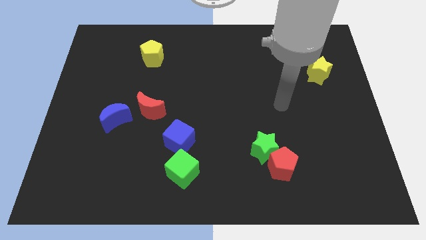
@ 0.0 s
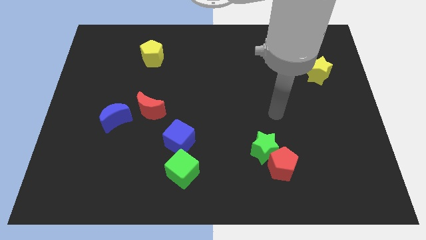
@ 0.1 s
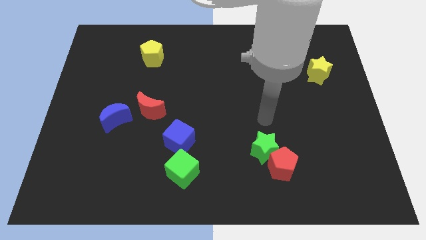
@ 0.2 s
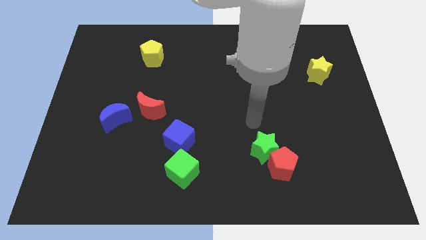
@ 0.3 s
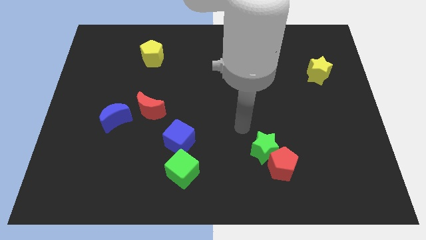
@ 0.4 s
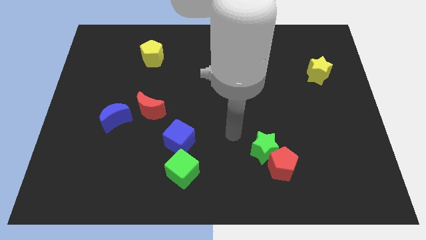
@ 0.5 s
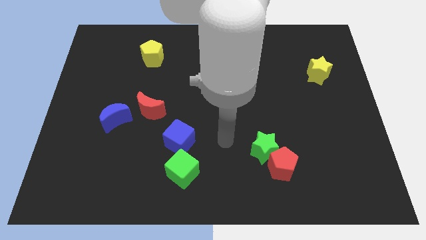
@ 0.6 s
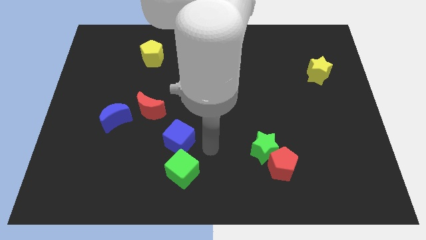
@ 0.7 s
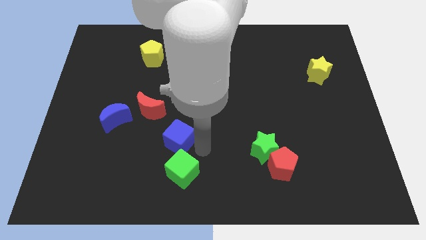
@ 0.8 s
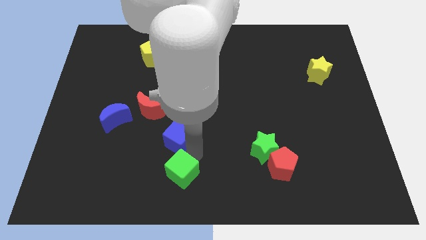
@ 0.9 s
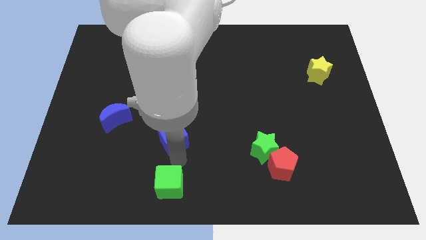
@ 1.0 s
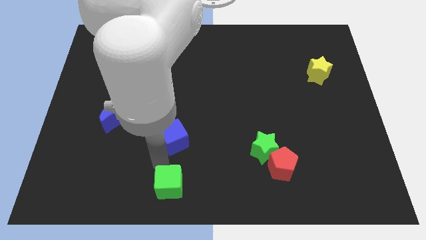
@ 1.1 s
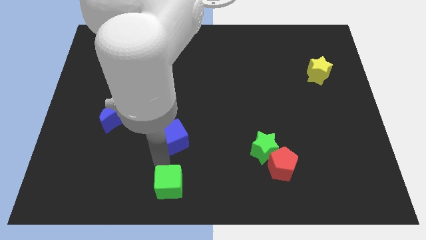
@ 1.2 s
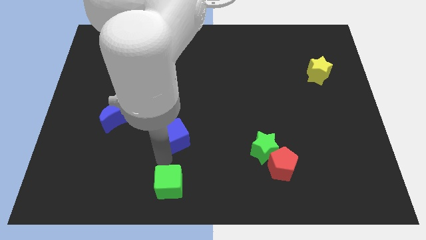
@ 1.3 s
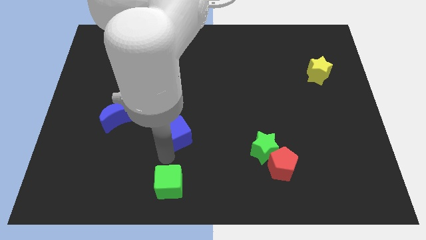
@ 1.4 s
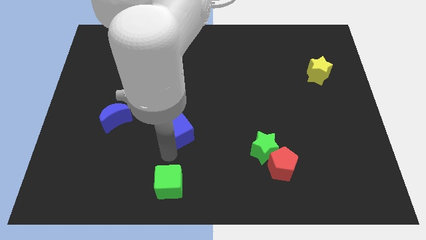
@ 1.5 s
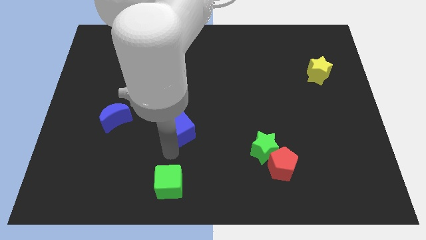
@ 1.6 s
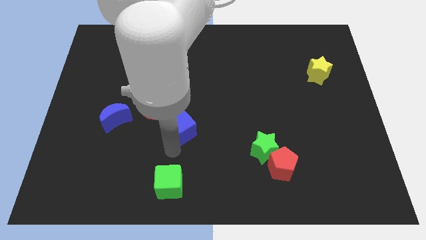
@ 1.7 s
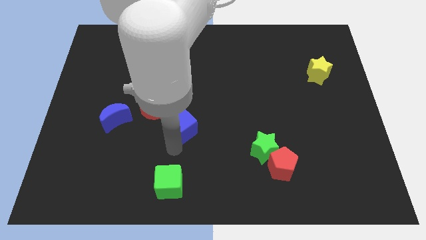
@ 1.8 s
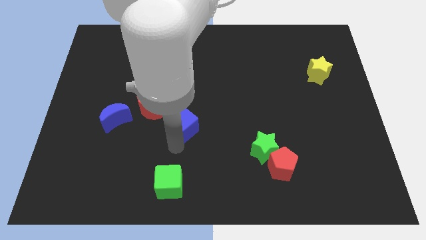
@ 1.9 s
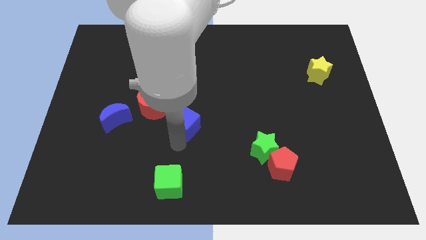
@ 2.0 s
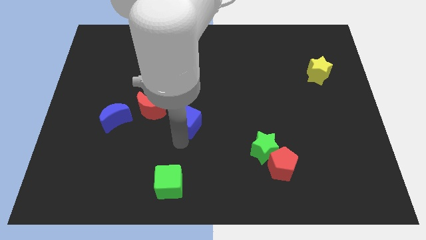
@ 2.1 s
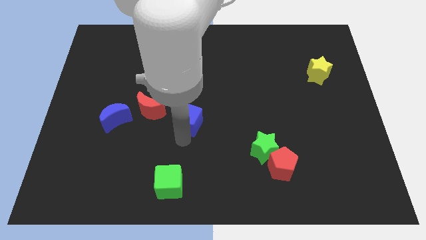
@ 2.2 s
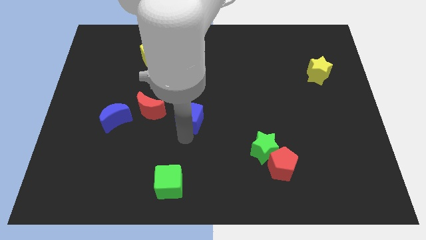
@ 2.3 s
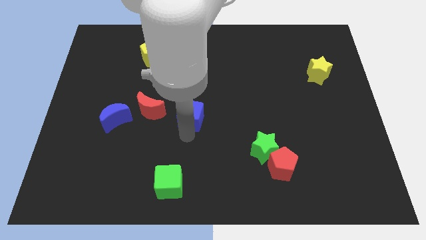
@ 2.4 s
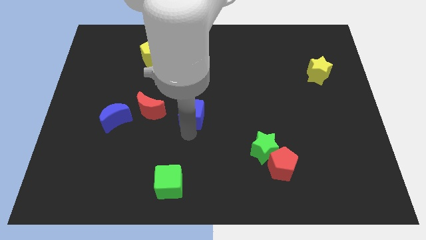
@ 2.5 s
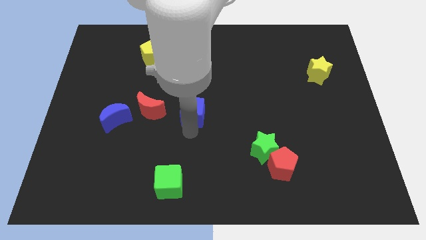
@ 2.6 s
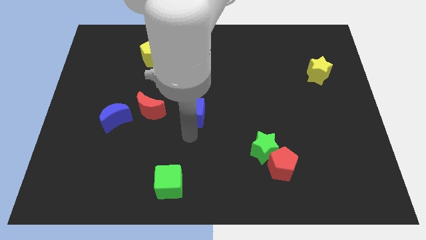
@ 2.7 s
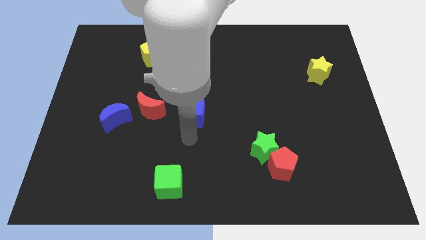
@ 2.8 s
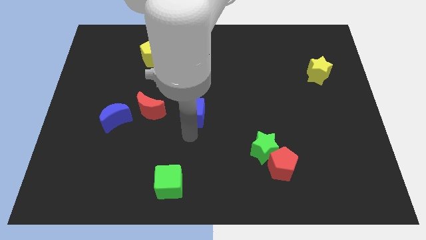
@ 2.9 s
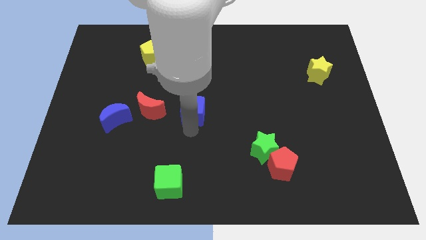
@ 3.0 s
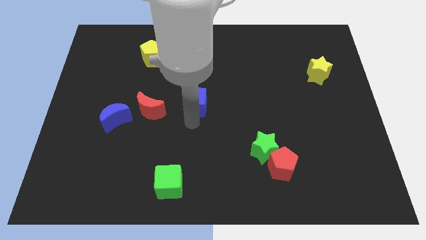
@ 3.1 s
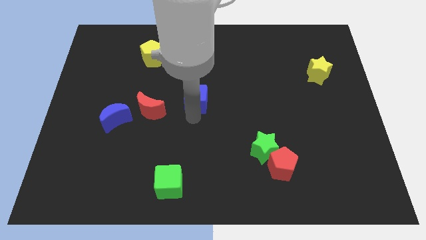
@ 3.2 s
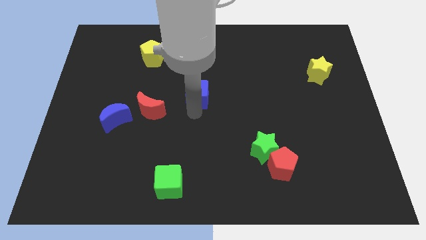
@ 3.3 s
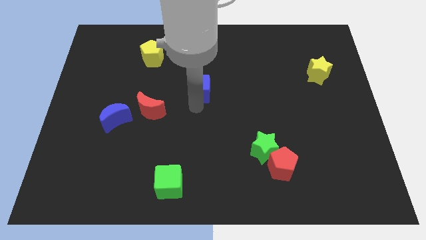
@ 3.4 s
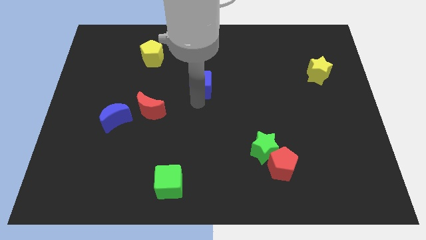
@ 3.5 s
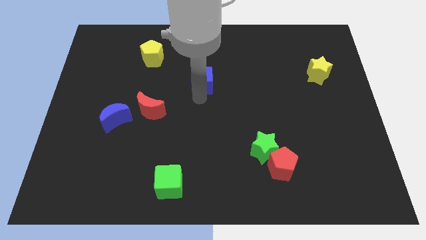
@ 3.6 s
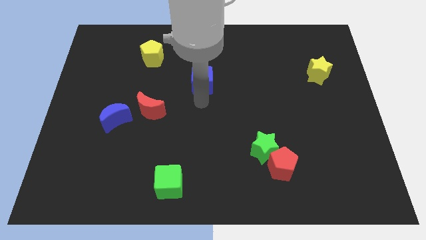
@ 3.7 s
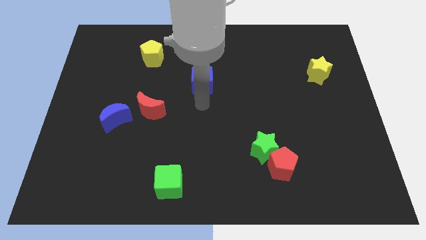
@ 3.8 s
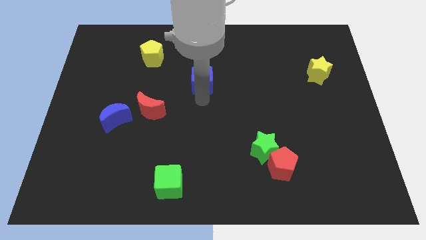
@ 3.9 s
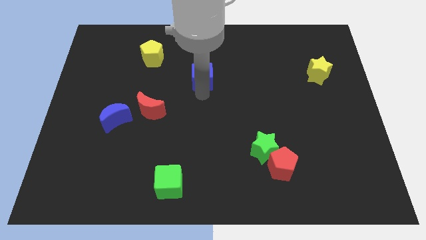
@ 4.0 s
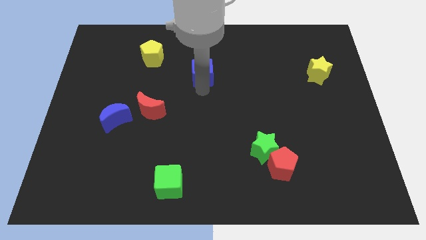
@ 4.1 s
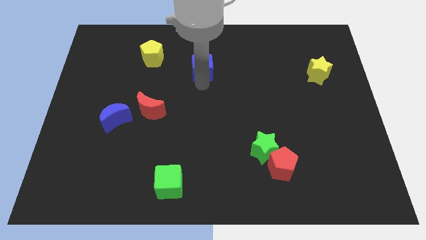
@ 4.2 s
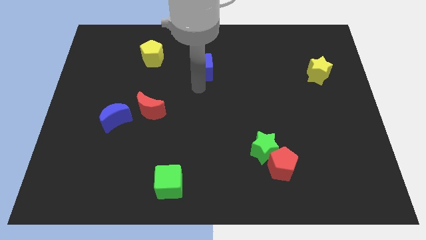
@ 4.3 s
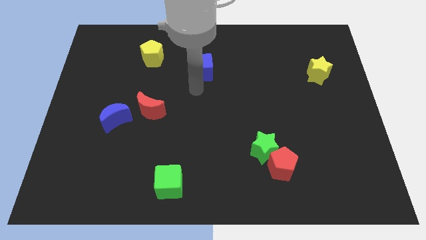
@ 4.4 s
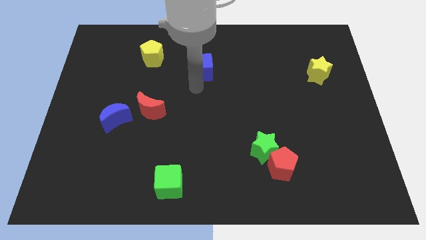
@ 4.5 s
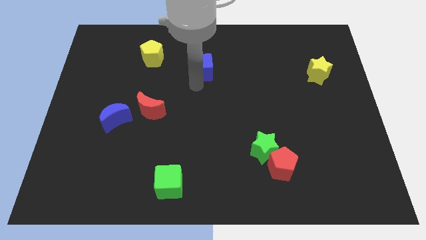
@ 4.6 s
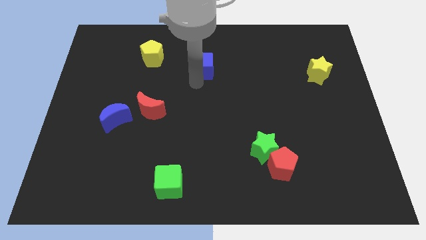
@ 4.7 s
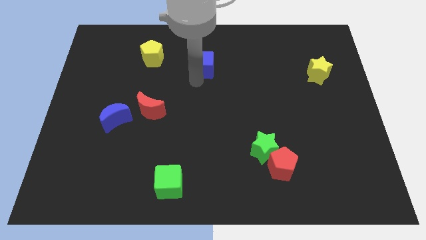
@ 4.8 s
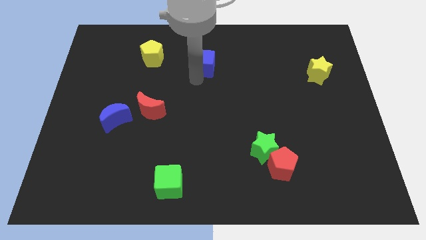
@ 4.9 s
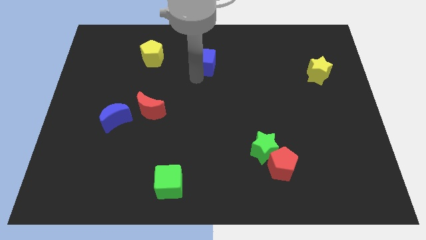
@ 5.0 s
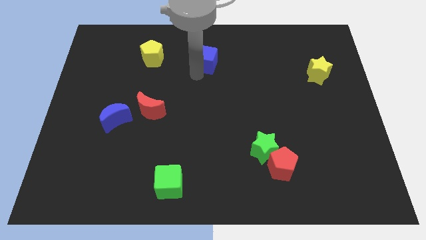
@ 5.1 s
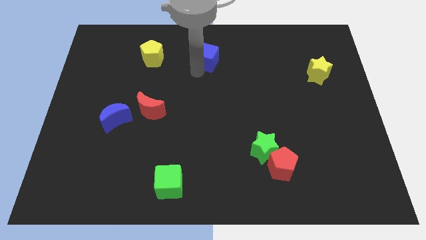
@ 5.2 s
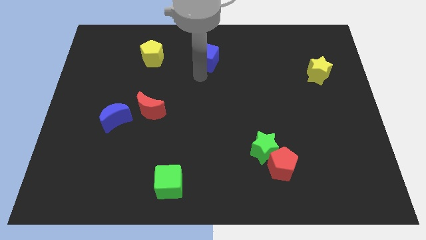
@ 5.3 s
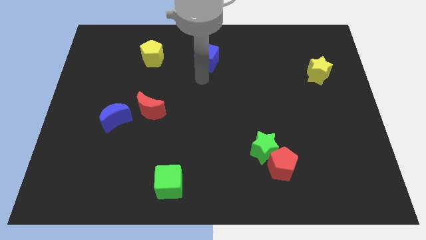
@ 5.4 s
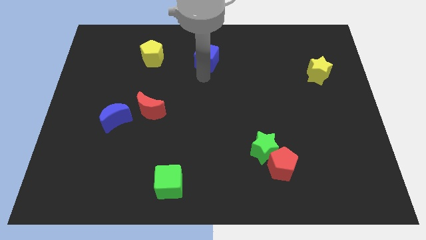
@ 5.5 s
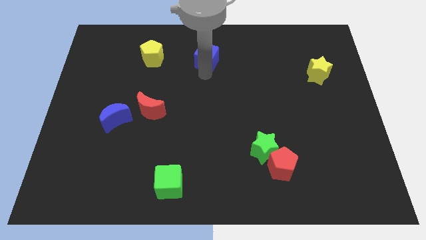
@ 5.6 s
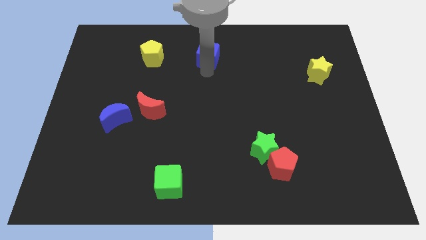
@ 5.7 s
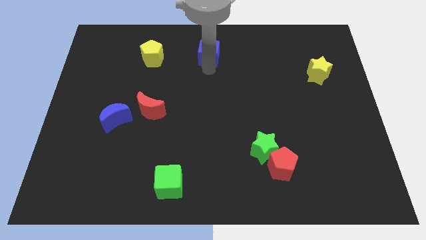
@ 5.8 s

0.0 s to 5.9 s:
push the blue cube to the top side
